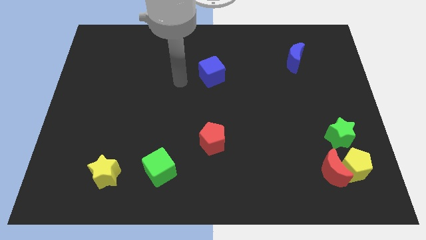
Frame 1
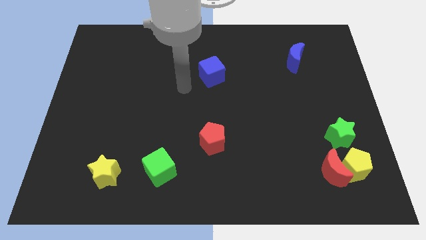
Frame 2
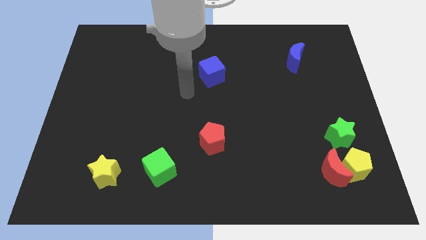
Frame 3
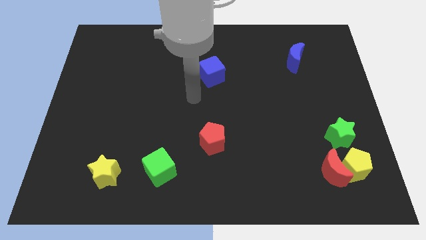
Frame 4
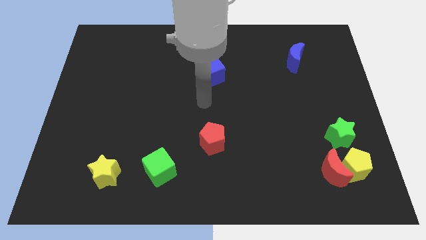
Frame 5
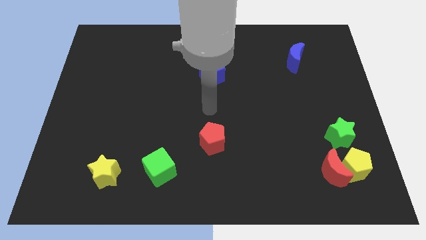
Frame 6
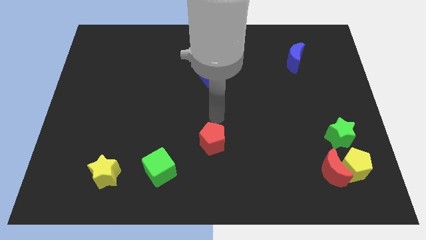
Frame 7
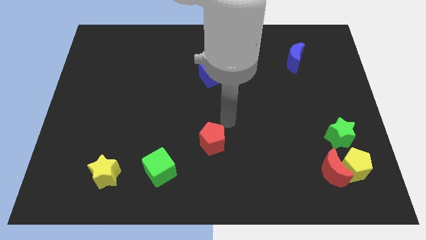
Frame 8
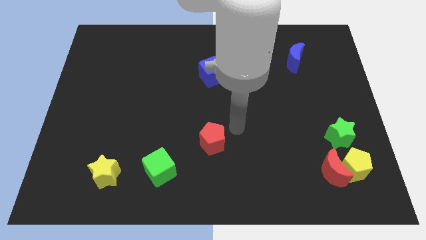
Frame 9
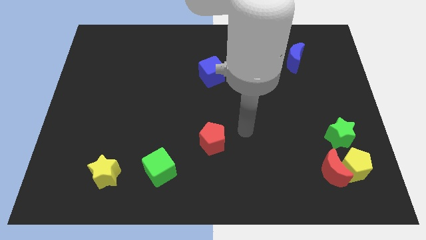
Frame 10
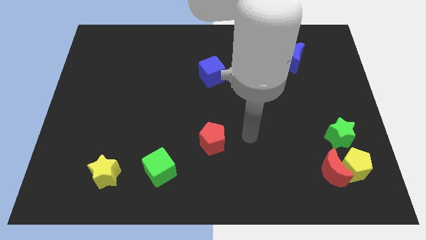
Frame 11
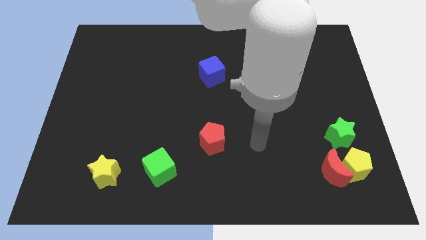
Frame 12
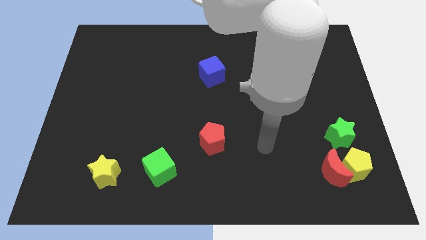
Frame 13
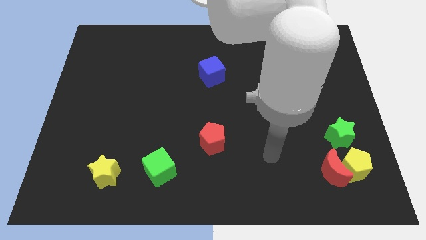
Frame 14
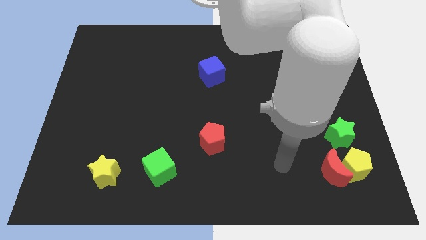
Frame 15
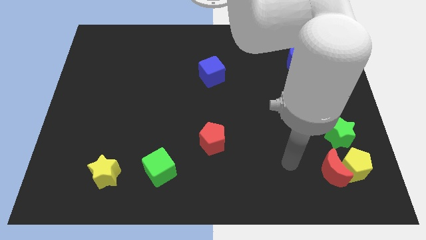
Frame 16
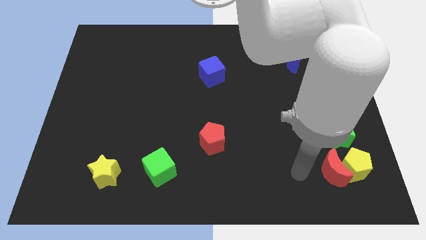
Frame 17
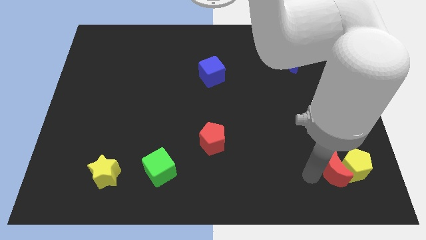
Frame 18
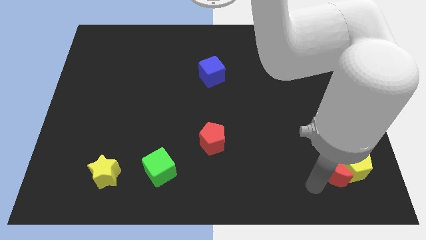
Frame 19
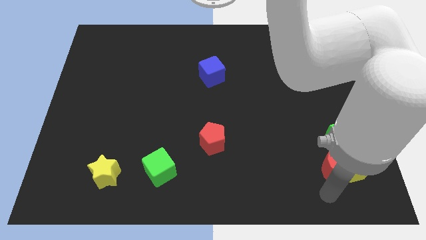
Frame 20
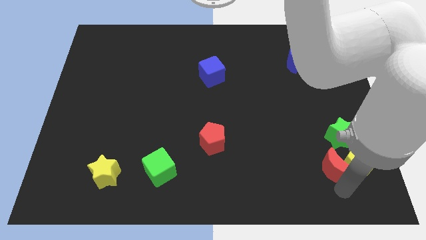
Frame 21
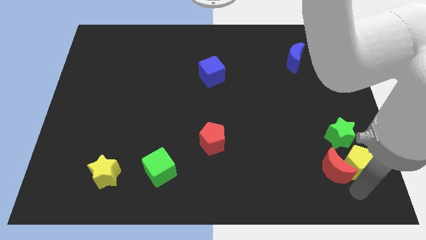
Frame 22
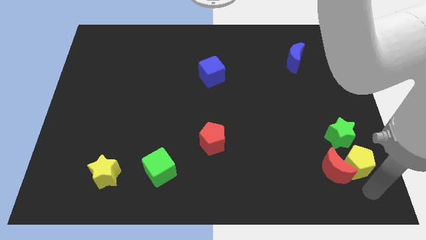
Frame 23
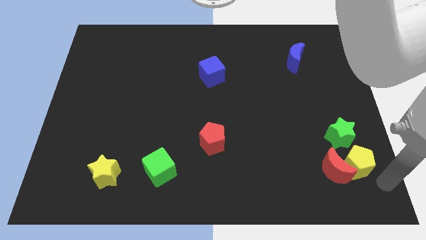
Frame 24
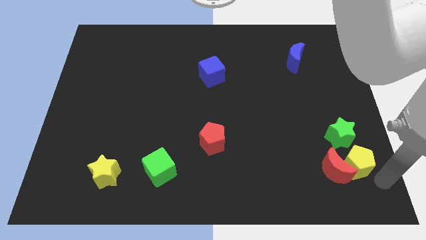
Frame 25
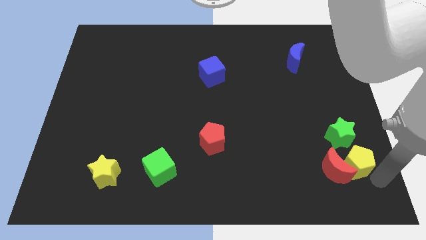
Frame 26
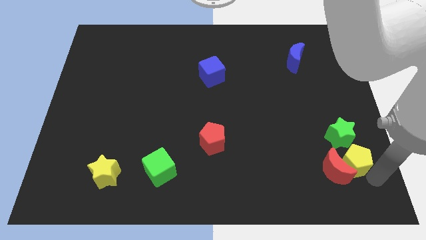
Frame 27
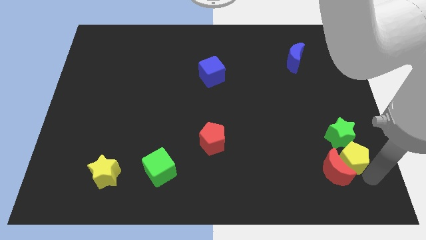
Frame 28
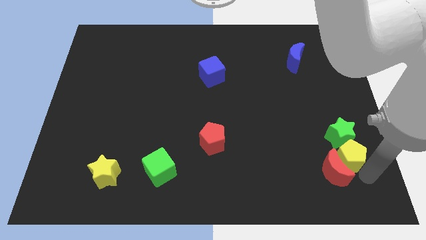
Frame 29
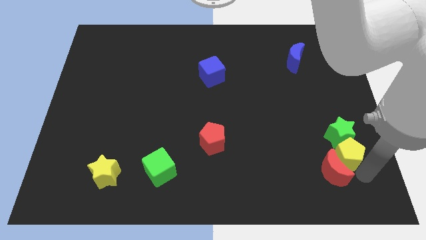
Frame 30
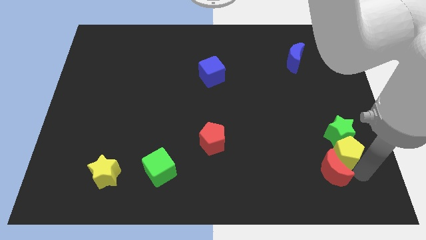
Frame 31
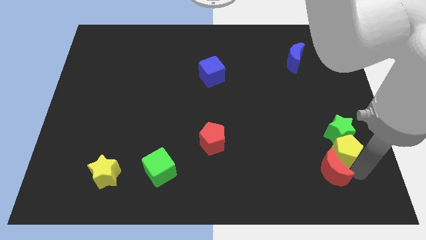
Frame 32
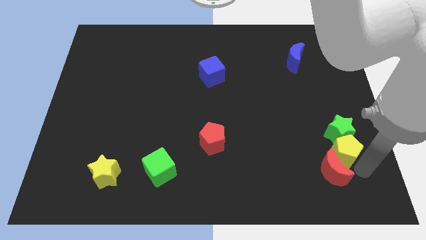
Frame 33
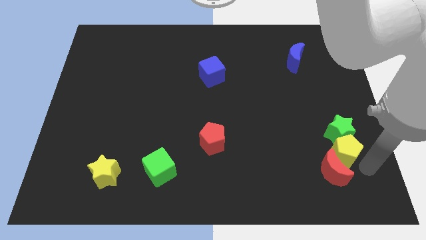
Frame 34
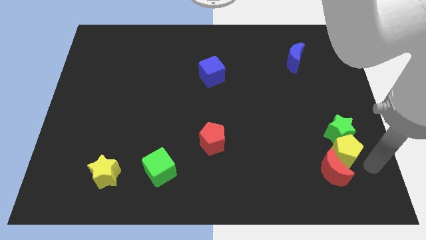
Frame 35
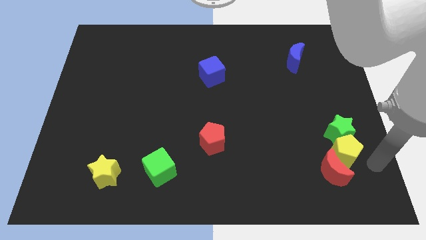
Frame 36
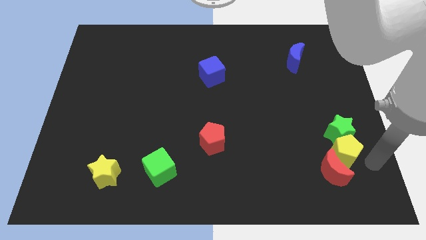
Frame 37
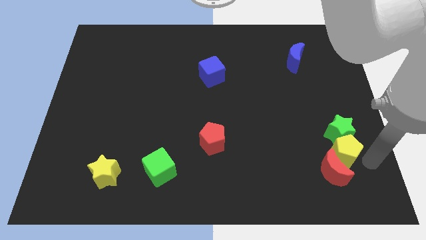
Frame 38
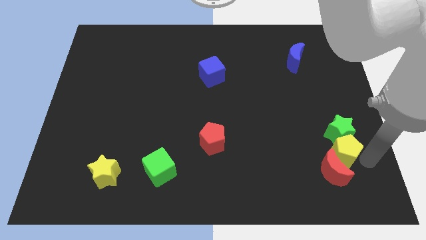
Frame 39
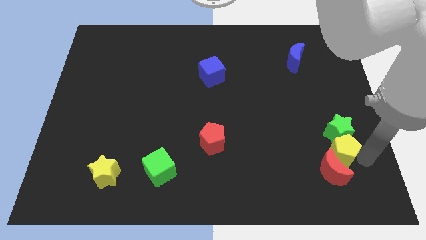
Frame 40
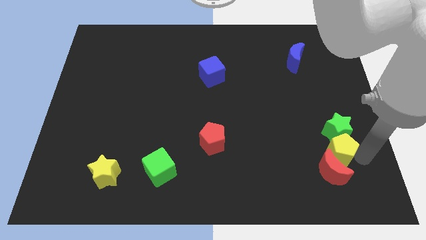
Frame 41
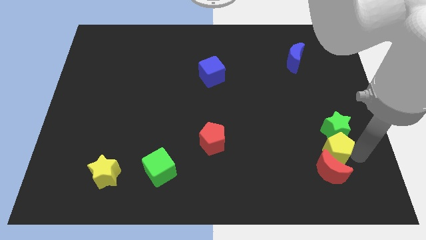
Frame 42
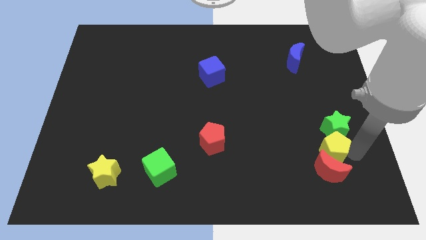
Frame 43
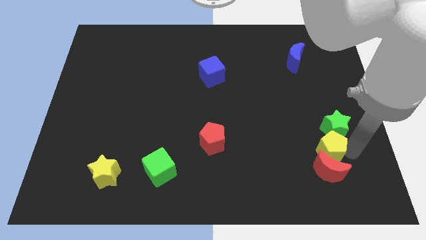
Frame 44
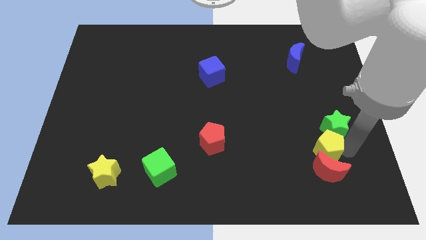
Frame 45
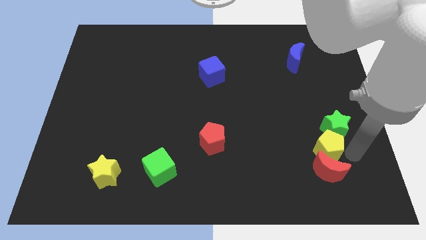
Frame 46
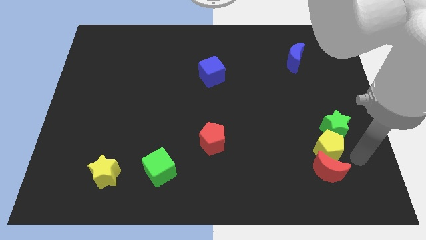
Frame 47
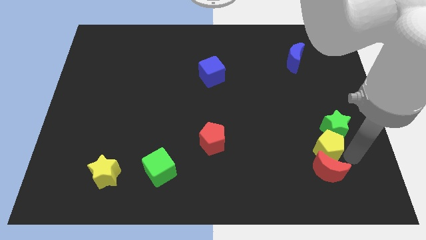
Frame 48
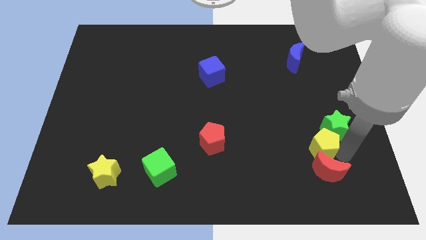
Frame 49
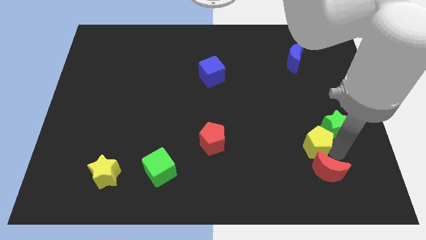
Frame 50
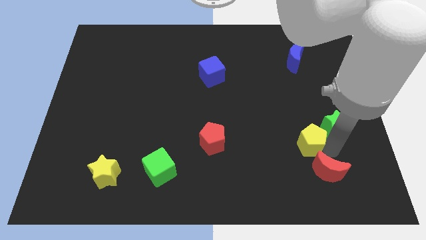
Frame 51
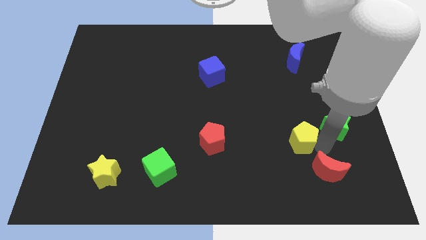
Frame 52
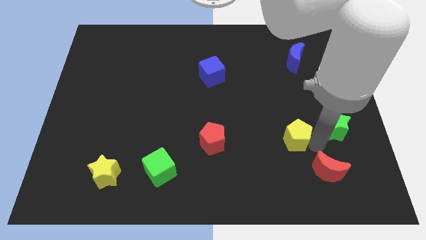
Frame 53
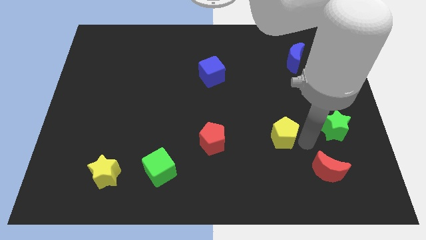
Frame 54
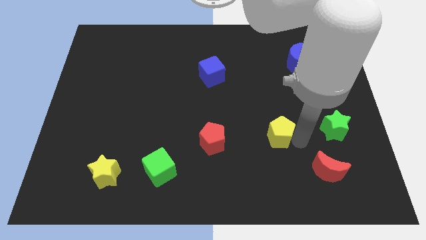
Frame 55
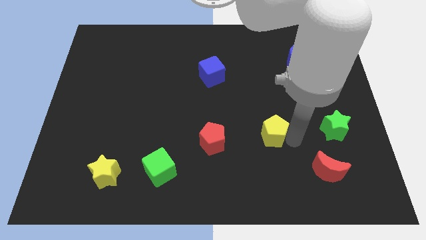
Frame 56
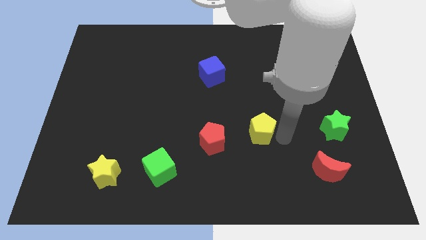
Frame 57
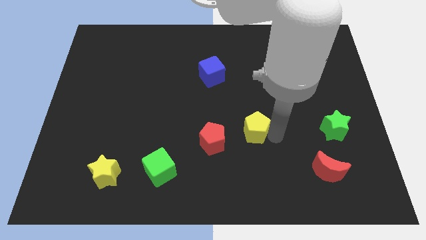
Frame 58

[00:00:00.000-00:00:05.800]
push the yellow pentagon diagonally up and to the right of the red pentagon

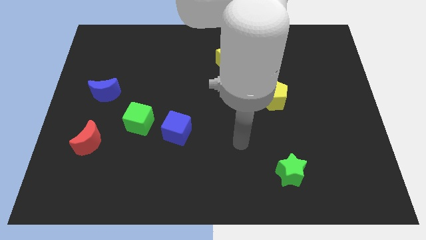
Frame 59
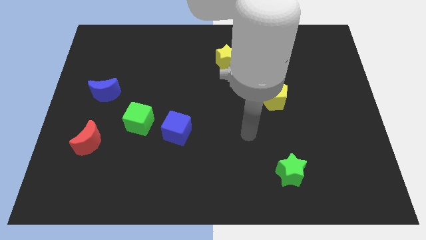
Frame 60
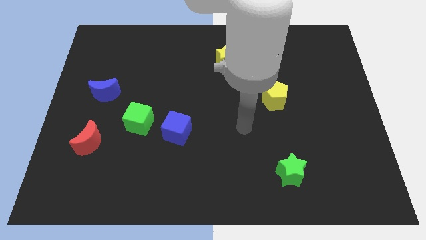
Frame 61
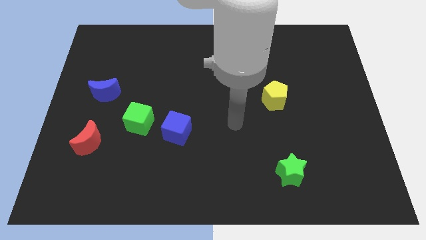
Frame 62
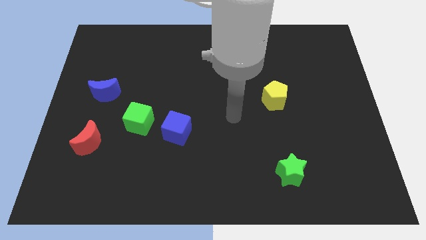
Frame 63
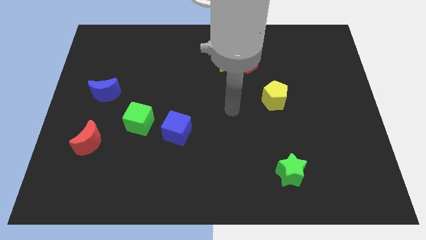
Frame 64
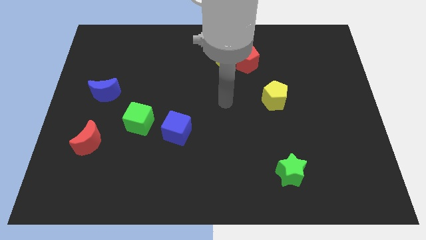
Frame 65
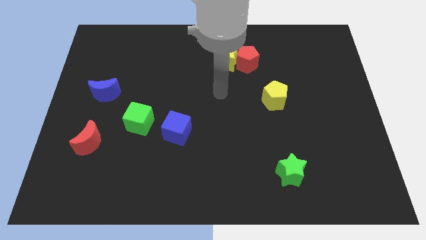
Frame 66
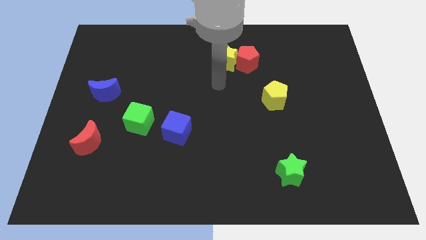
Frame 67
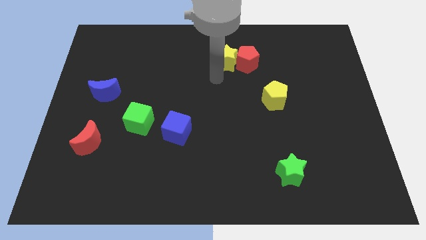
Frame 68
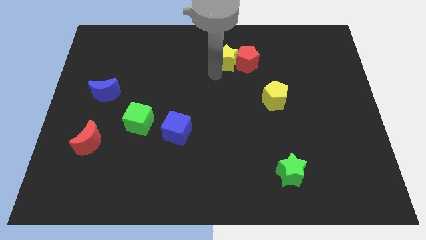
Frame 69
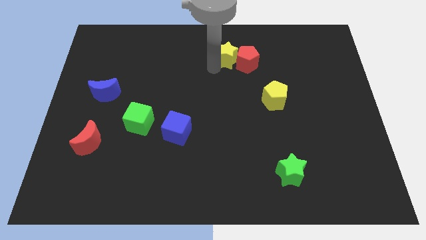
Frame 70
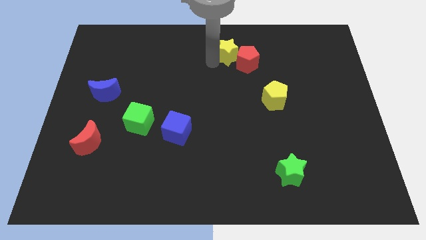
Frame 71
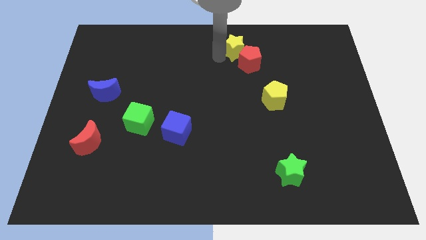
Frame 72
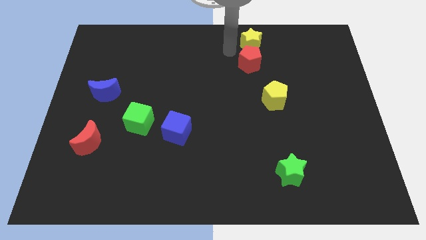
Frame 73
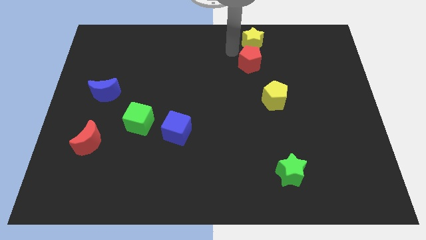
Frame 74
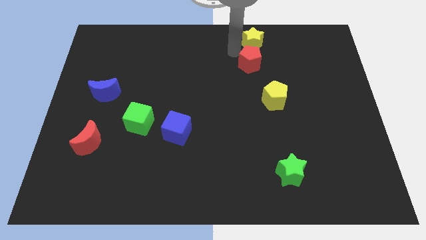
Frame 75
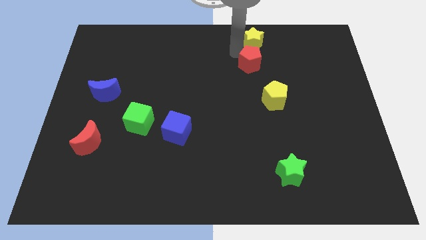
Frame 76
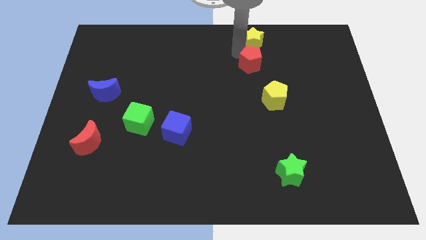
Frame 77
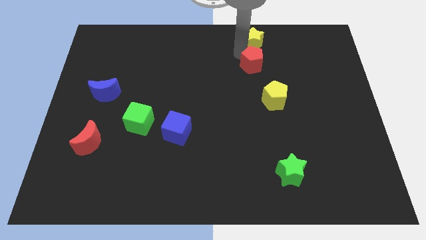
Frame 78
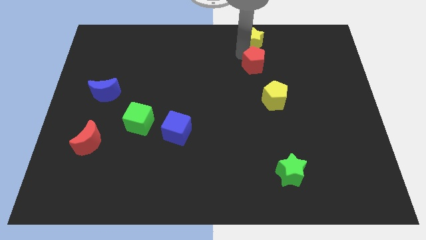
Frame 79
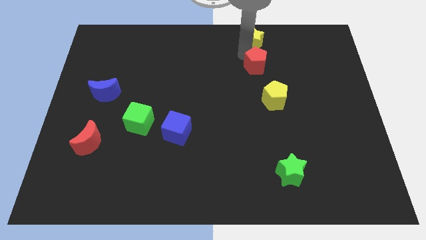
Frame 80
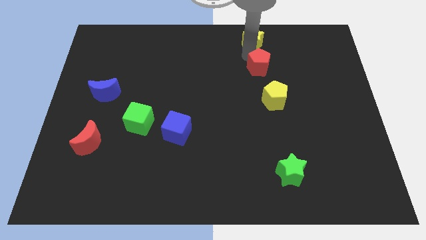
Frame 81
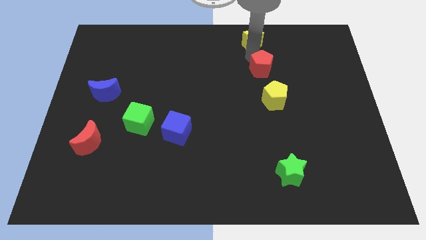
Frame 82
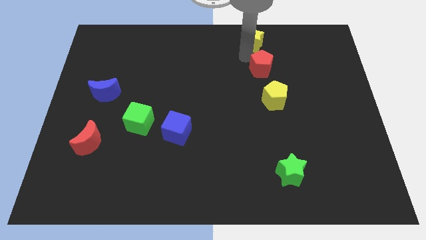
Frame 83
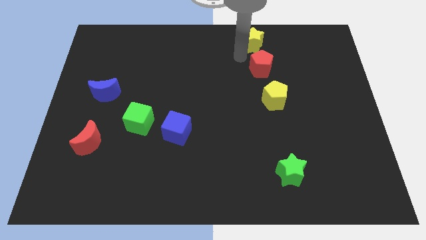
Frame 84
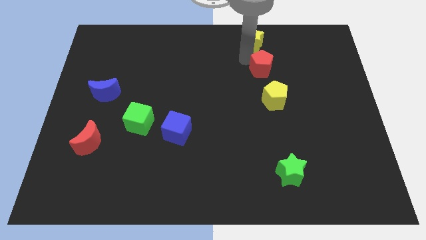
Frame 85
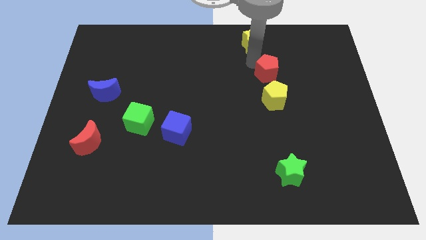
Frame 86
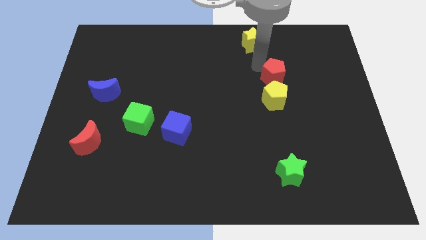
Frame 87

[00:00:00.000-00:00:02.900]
put the red pentagon diagonally up and to the right of the yellow pentagon
